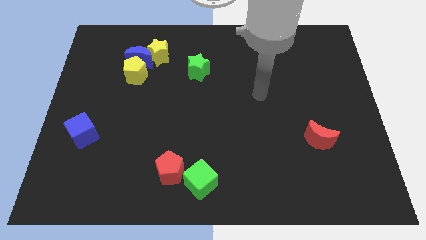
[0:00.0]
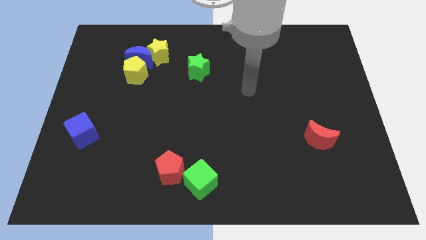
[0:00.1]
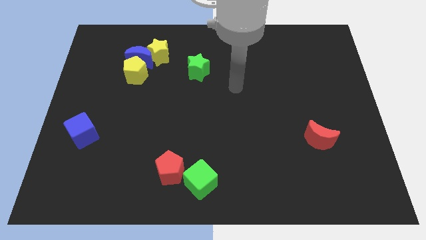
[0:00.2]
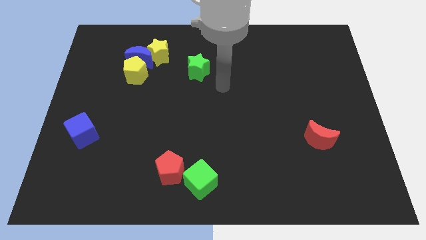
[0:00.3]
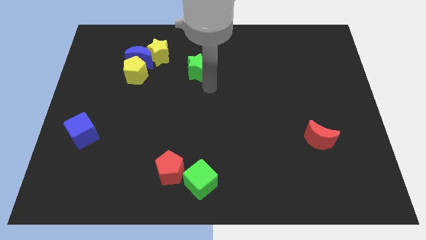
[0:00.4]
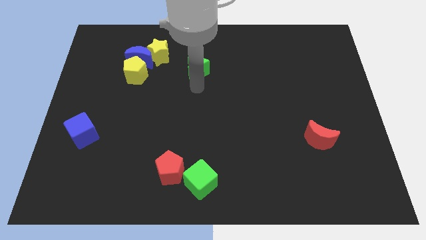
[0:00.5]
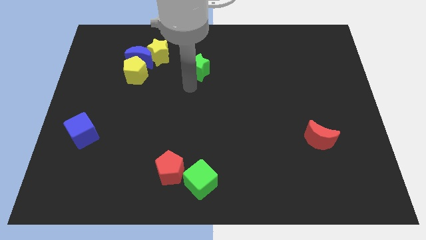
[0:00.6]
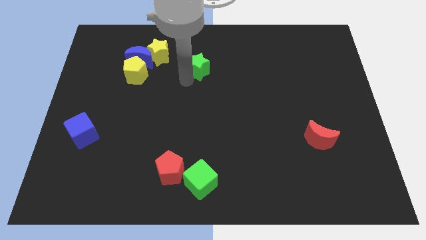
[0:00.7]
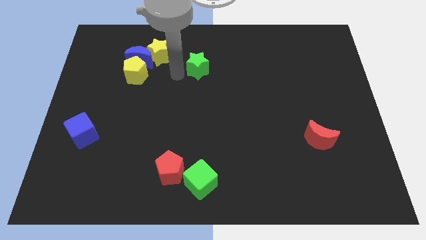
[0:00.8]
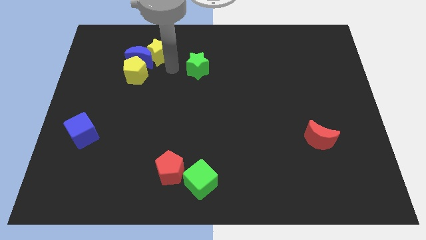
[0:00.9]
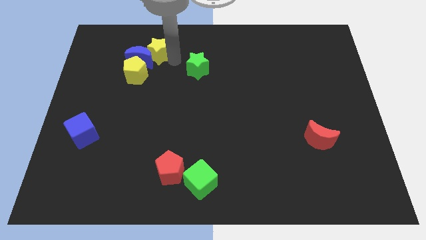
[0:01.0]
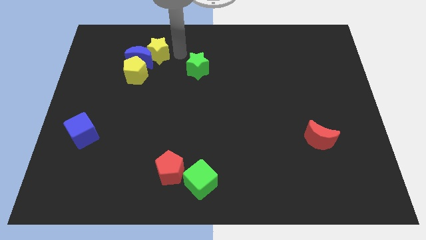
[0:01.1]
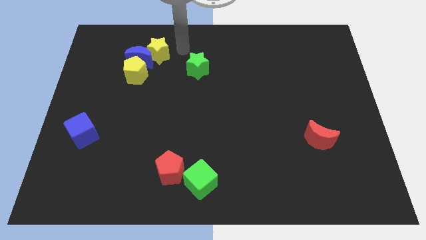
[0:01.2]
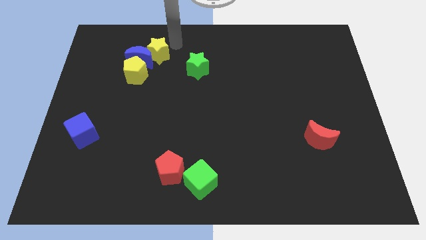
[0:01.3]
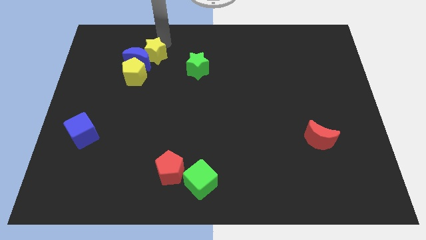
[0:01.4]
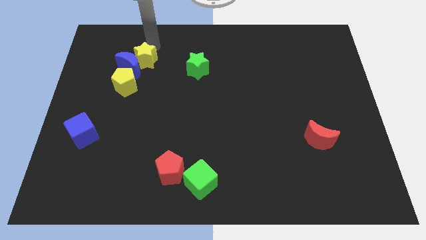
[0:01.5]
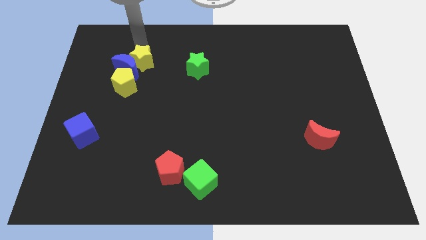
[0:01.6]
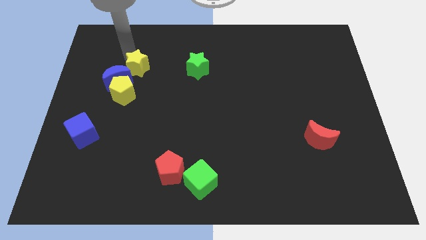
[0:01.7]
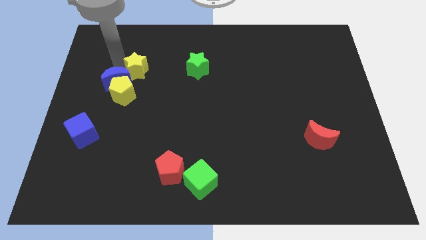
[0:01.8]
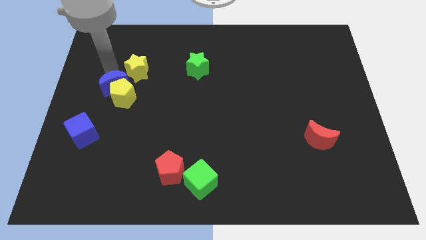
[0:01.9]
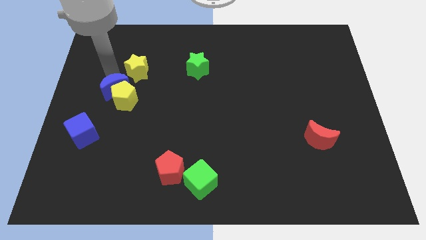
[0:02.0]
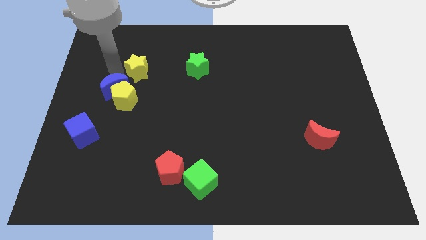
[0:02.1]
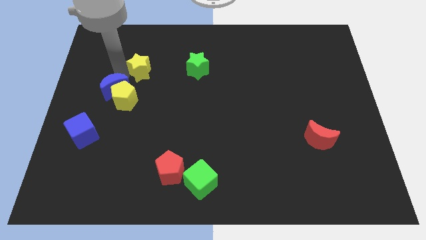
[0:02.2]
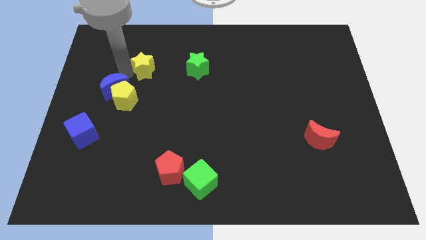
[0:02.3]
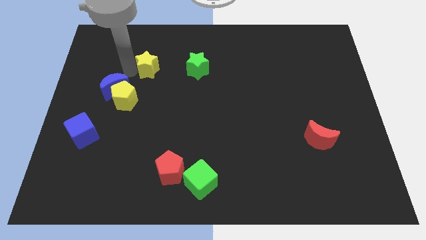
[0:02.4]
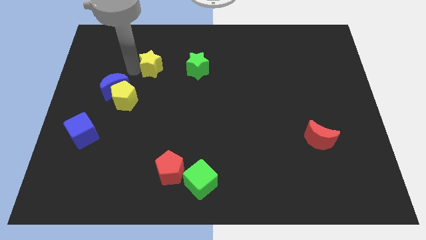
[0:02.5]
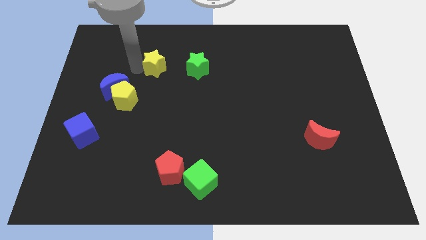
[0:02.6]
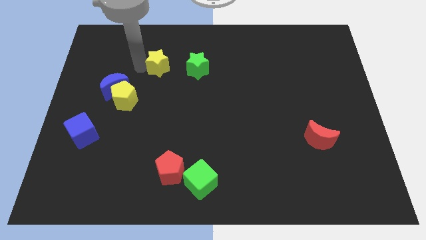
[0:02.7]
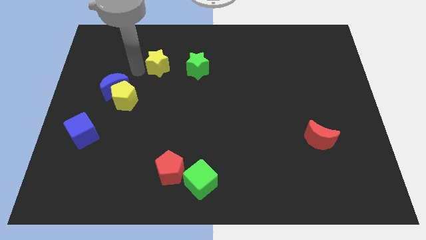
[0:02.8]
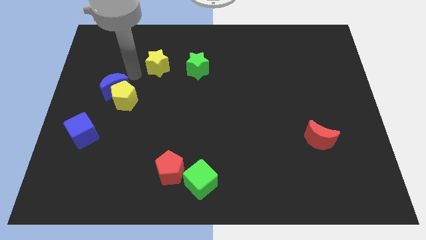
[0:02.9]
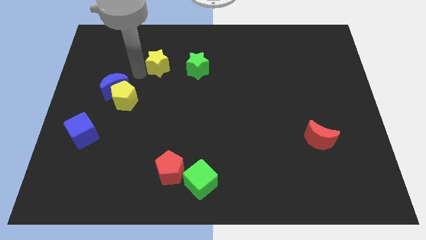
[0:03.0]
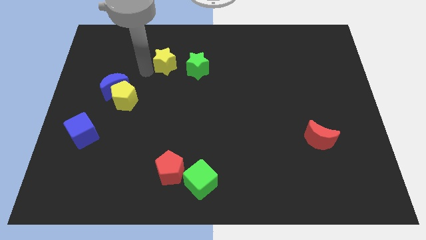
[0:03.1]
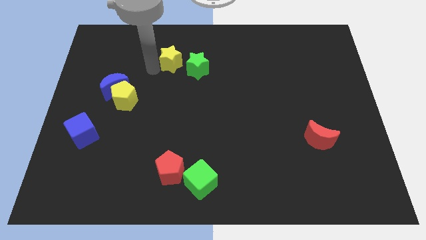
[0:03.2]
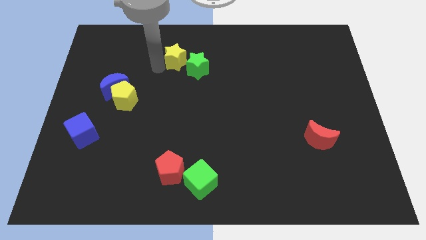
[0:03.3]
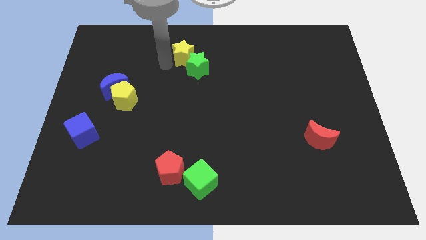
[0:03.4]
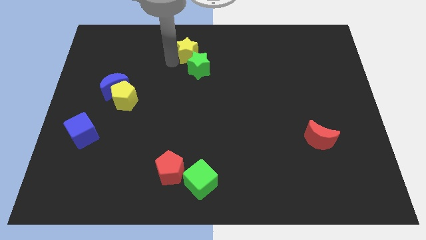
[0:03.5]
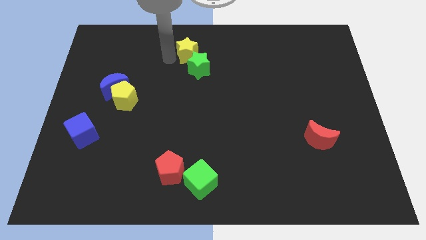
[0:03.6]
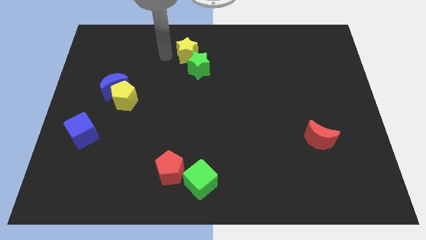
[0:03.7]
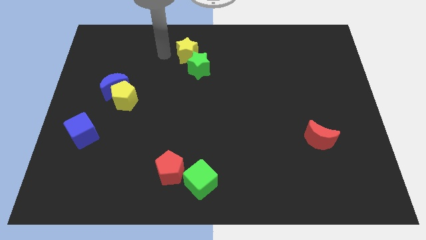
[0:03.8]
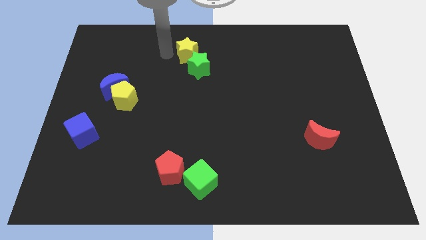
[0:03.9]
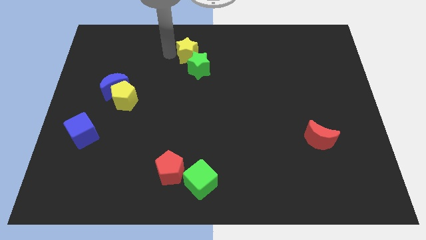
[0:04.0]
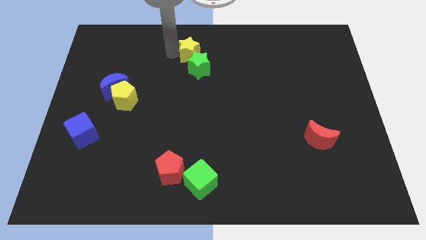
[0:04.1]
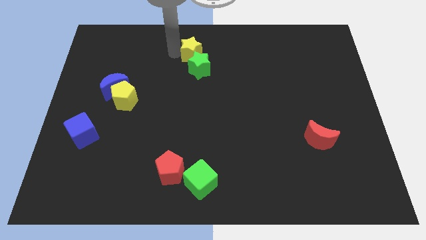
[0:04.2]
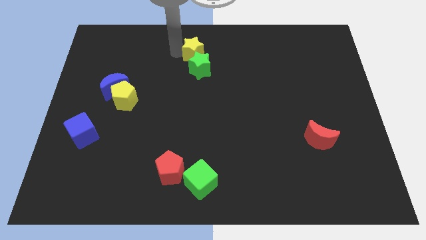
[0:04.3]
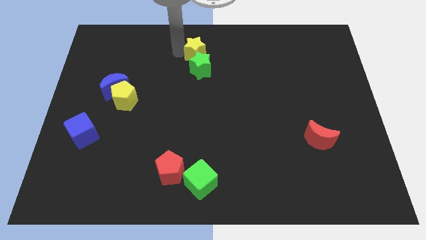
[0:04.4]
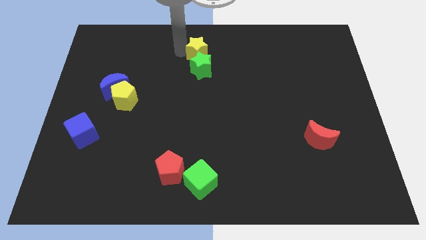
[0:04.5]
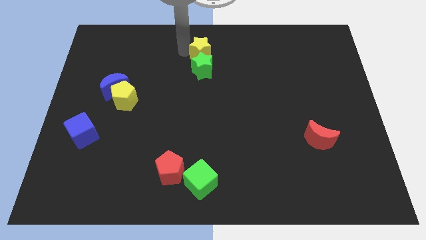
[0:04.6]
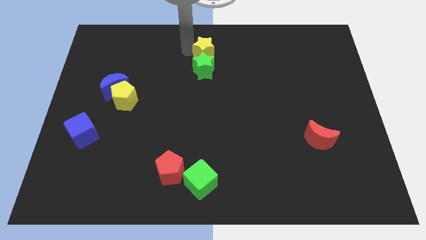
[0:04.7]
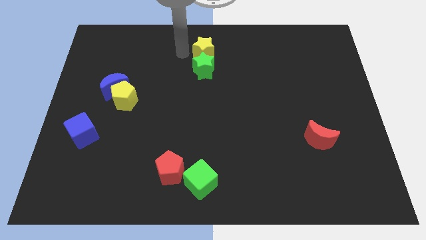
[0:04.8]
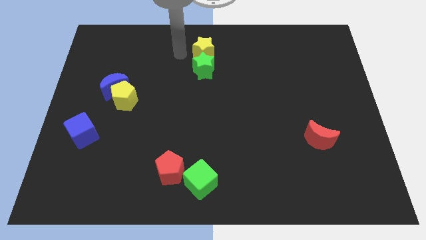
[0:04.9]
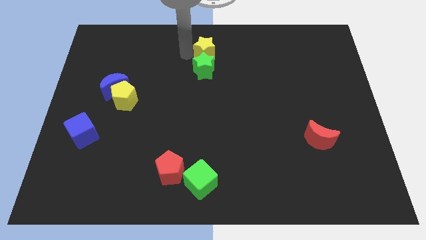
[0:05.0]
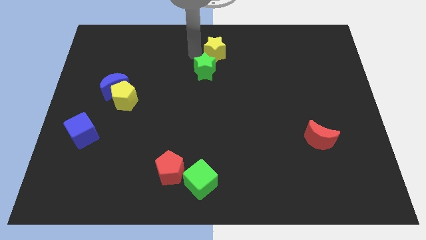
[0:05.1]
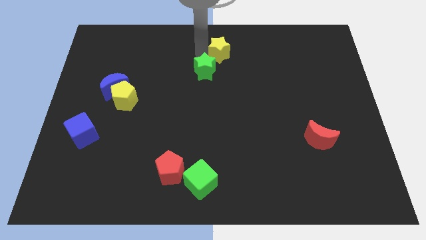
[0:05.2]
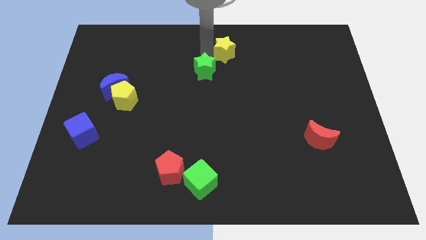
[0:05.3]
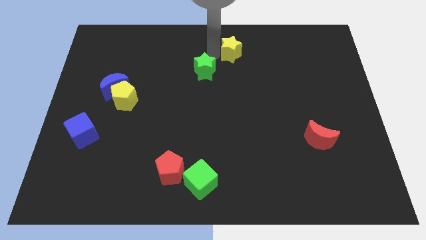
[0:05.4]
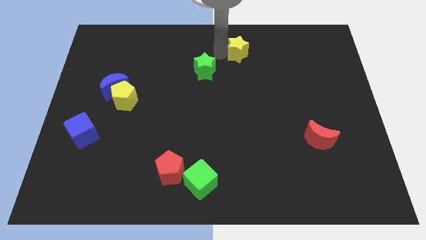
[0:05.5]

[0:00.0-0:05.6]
push the yellow star to the right

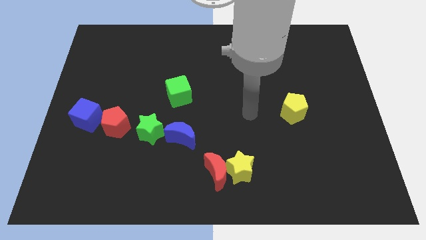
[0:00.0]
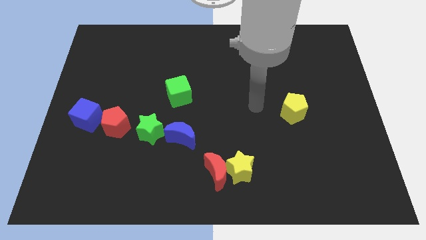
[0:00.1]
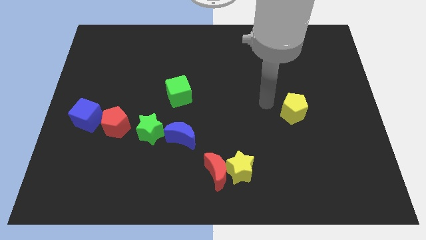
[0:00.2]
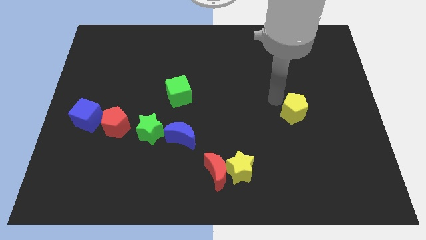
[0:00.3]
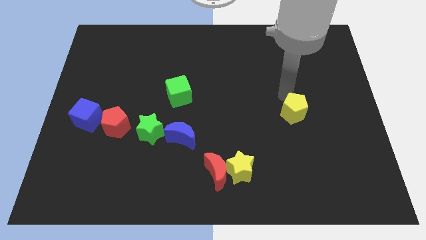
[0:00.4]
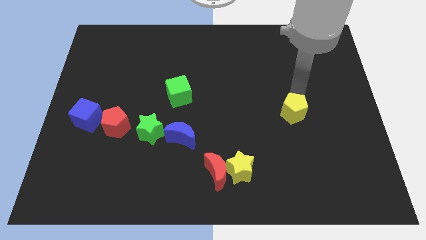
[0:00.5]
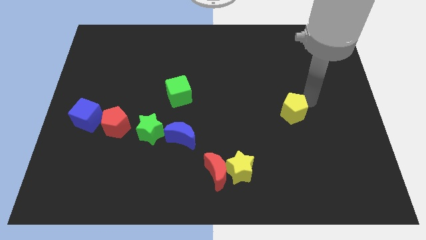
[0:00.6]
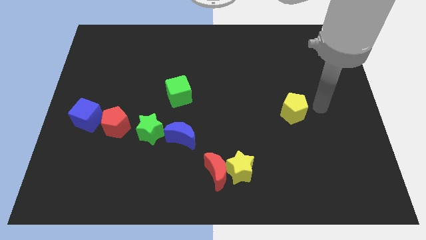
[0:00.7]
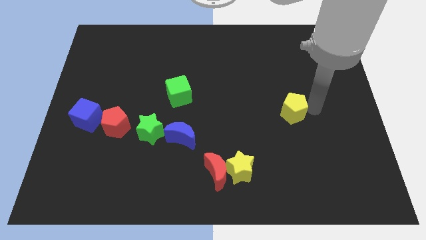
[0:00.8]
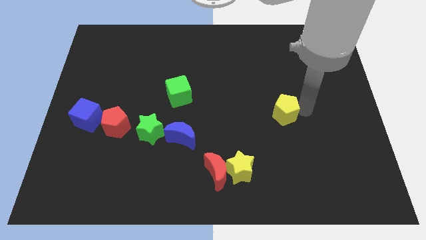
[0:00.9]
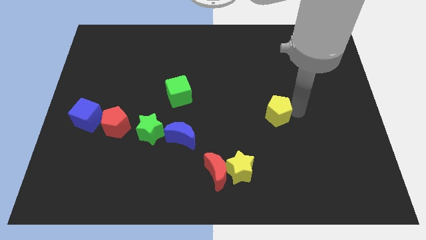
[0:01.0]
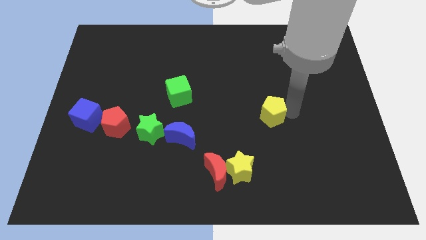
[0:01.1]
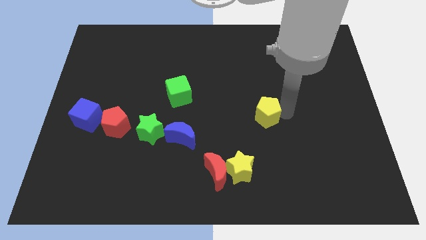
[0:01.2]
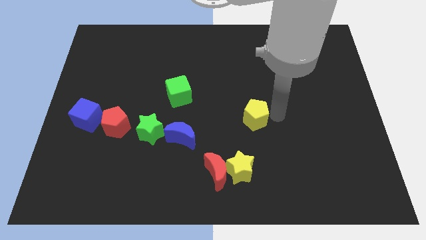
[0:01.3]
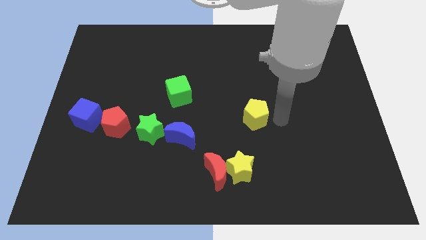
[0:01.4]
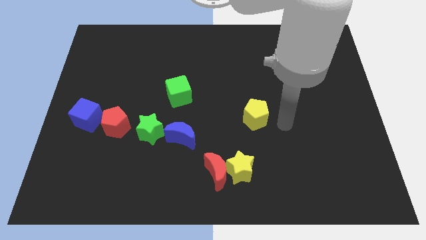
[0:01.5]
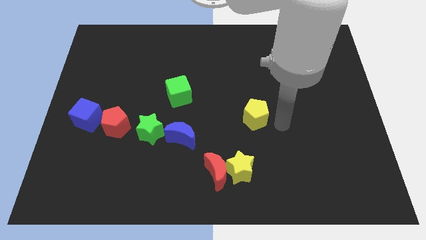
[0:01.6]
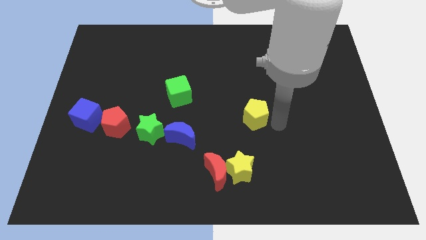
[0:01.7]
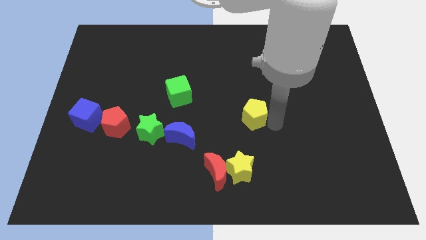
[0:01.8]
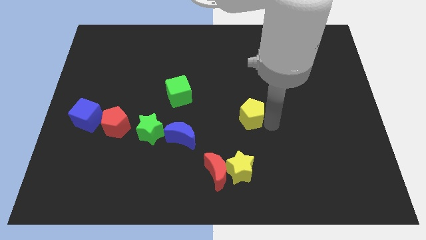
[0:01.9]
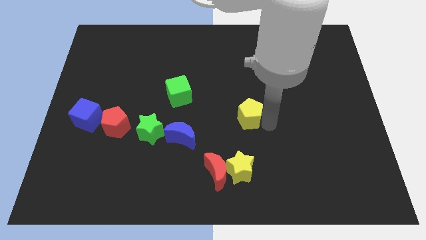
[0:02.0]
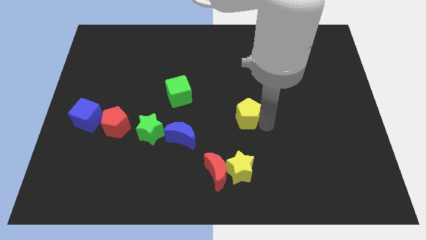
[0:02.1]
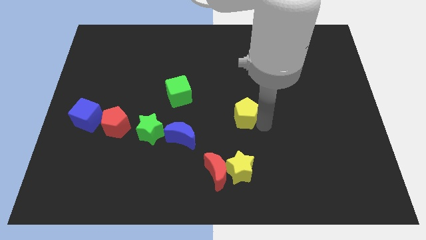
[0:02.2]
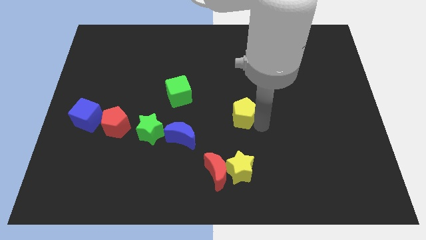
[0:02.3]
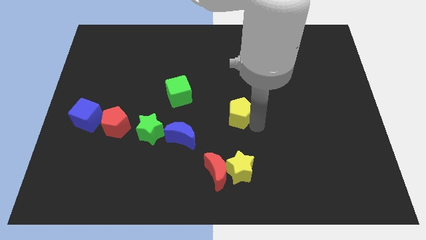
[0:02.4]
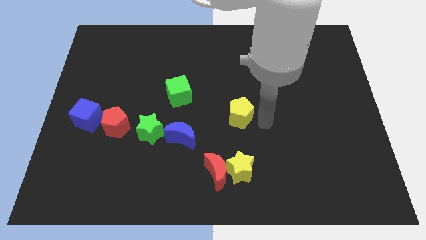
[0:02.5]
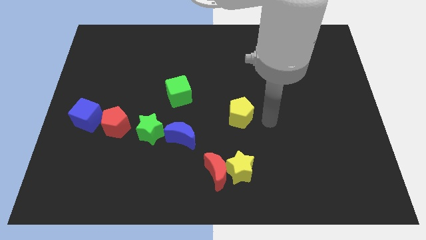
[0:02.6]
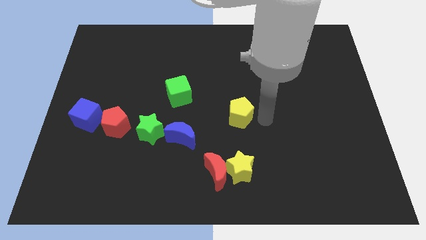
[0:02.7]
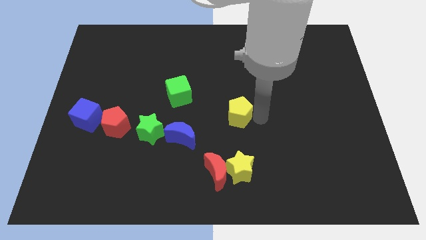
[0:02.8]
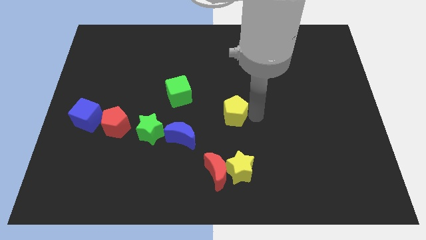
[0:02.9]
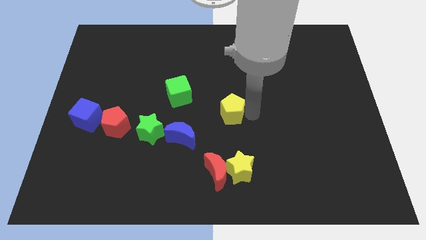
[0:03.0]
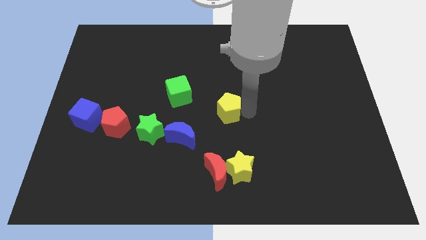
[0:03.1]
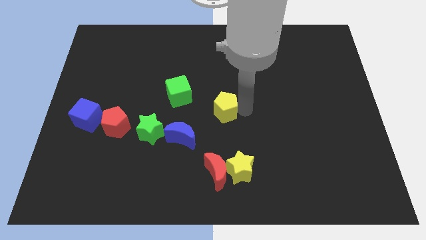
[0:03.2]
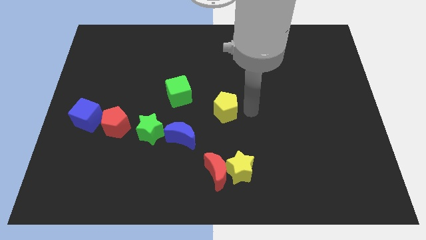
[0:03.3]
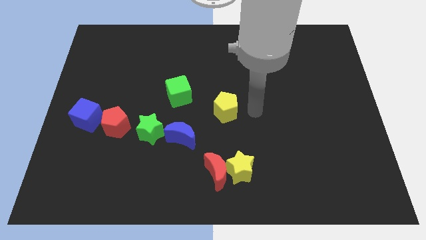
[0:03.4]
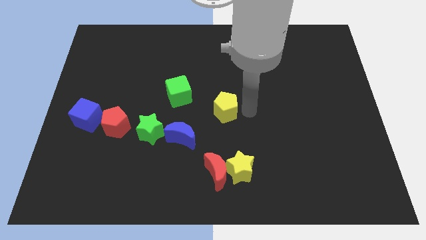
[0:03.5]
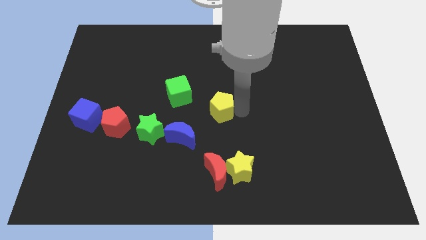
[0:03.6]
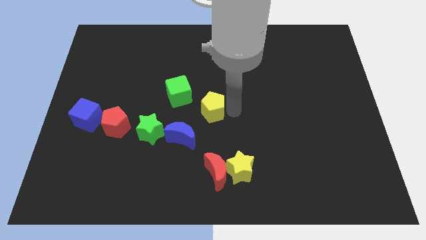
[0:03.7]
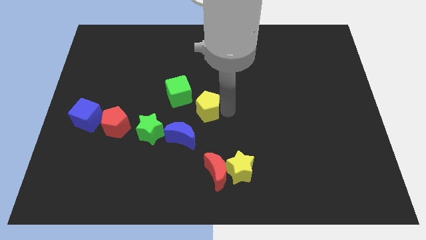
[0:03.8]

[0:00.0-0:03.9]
move the yellow pentagon left
